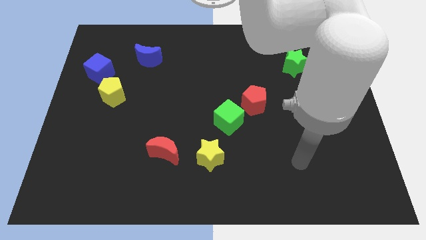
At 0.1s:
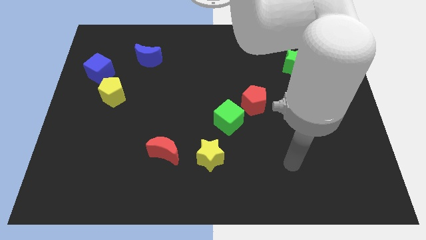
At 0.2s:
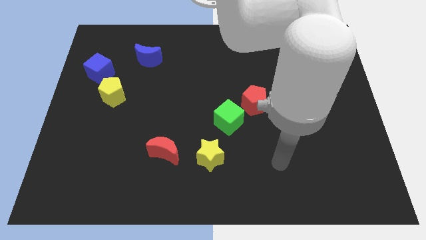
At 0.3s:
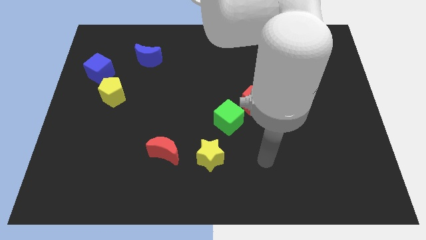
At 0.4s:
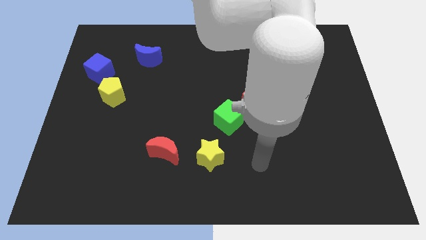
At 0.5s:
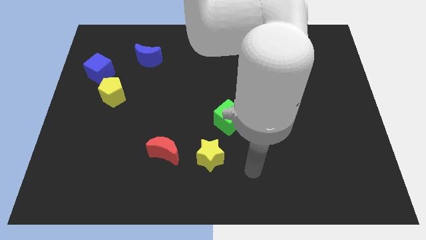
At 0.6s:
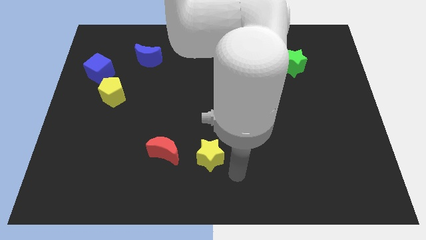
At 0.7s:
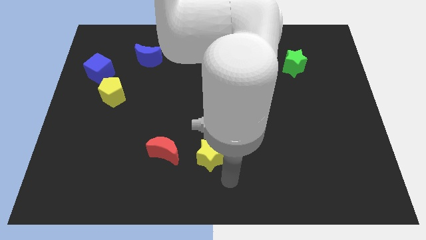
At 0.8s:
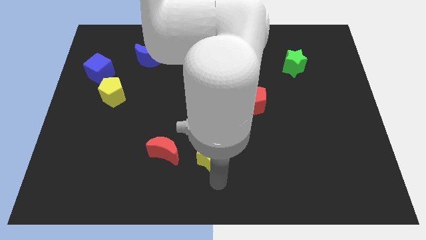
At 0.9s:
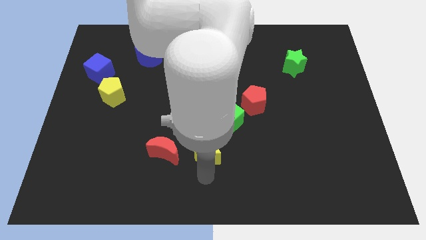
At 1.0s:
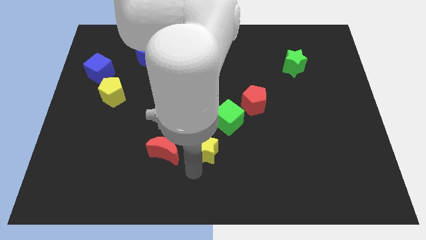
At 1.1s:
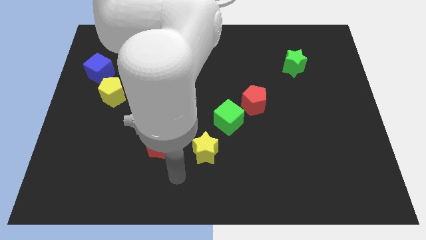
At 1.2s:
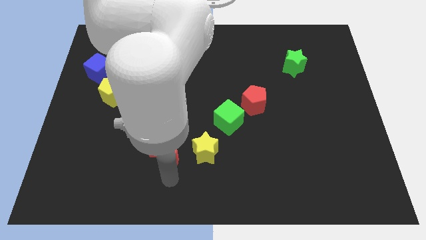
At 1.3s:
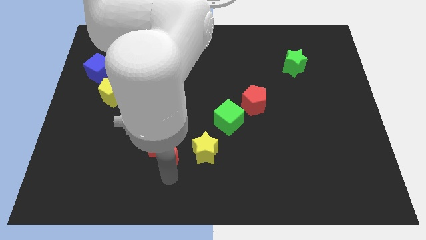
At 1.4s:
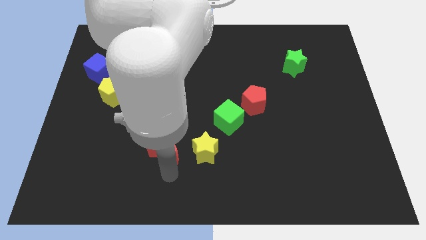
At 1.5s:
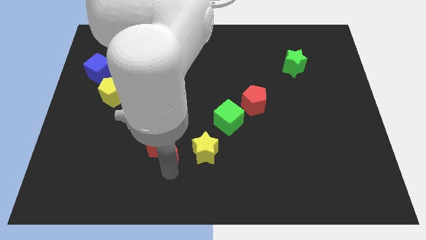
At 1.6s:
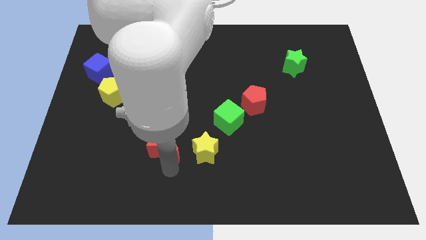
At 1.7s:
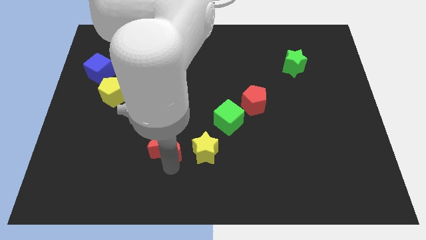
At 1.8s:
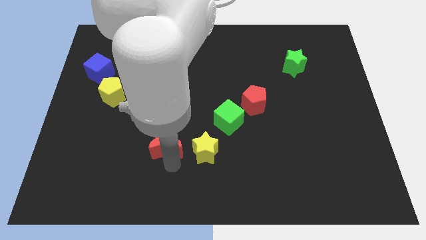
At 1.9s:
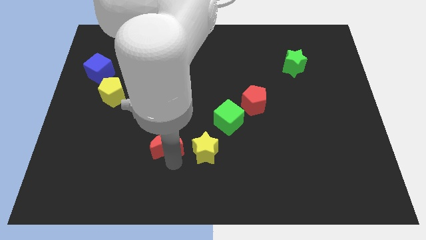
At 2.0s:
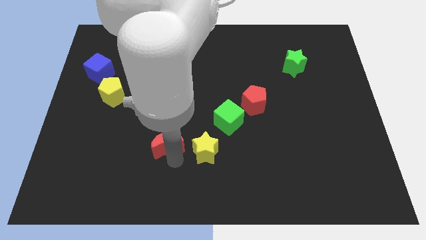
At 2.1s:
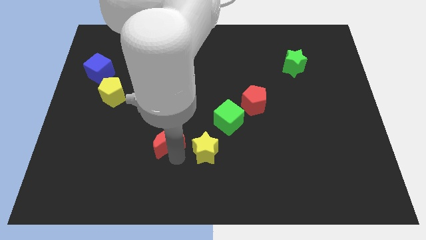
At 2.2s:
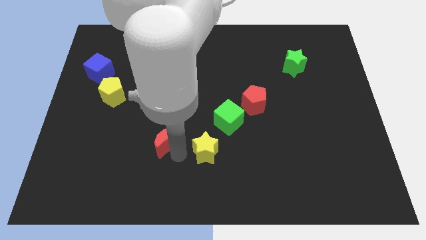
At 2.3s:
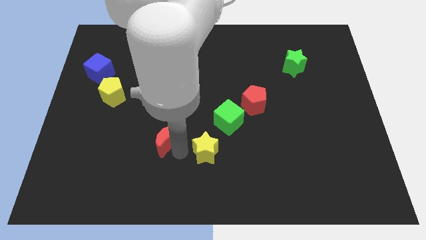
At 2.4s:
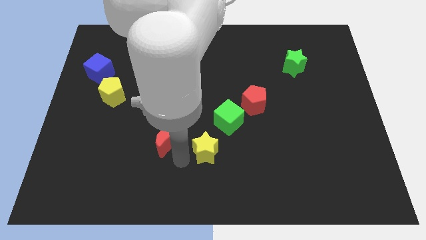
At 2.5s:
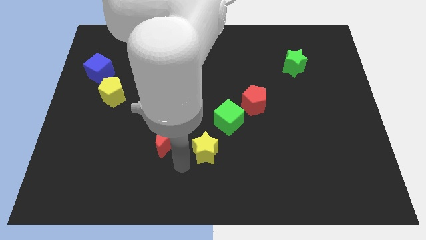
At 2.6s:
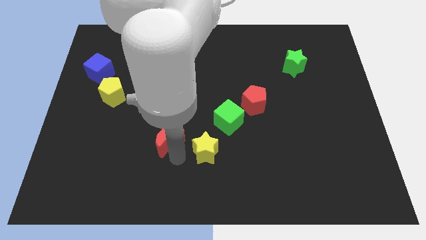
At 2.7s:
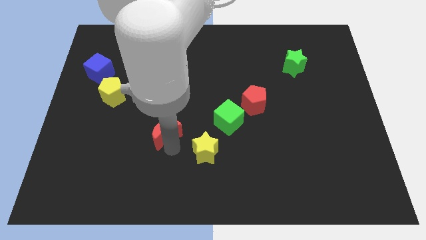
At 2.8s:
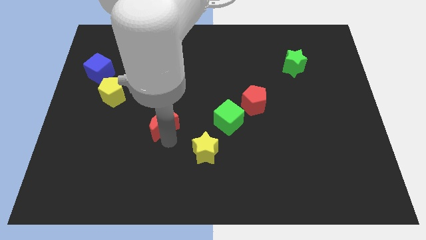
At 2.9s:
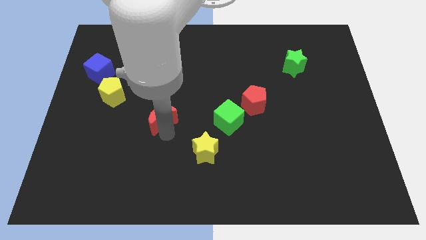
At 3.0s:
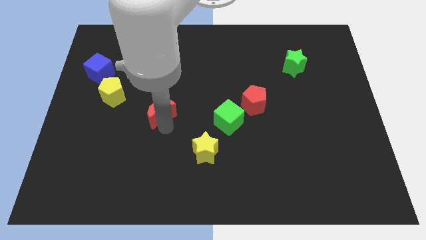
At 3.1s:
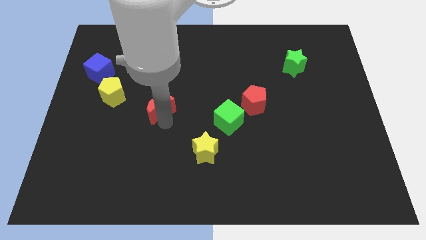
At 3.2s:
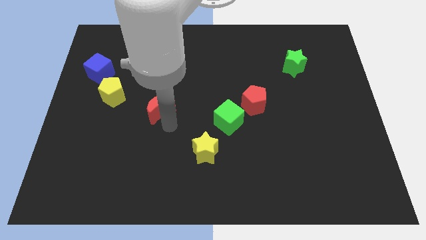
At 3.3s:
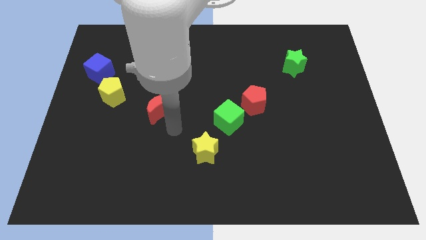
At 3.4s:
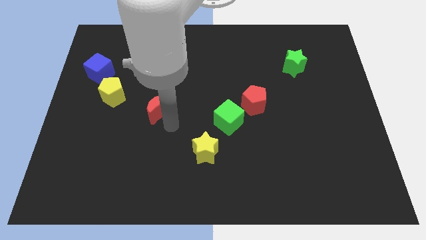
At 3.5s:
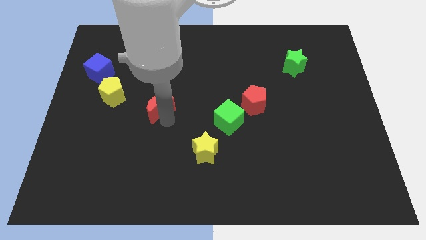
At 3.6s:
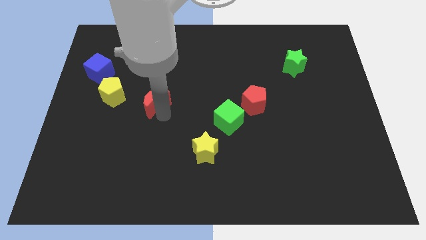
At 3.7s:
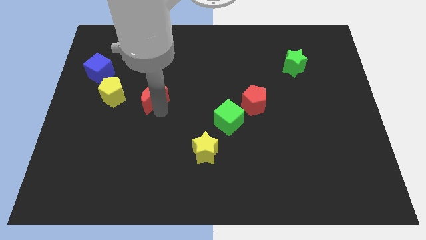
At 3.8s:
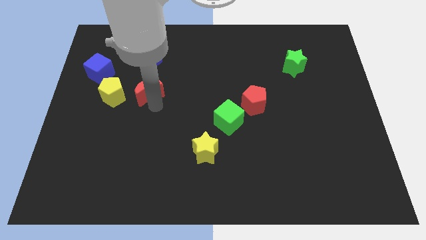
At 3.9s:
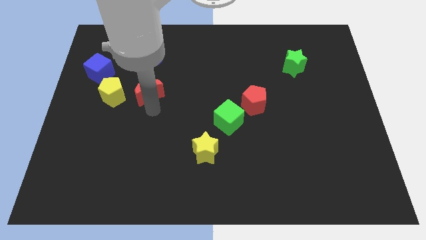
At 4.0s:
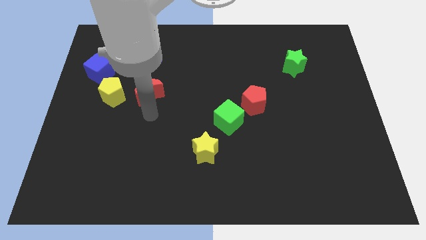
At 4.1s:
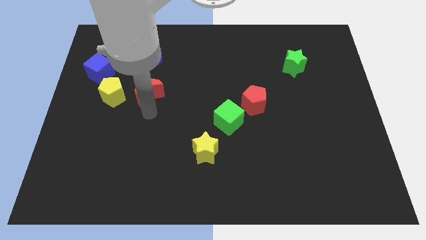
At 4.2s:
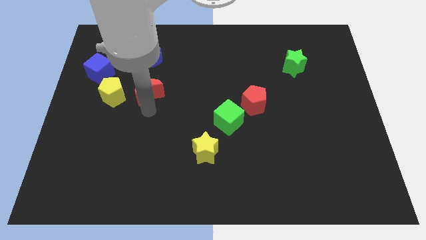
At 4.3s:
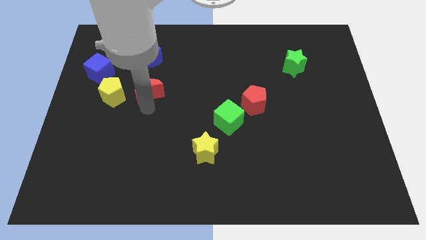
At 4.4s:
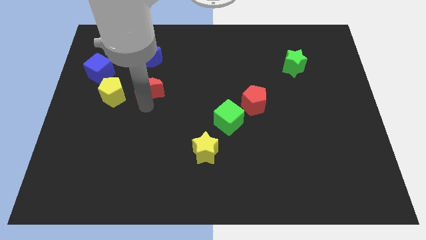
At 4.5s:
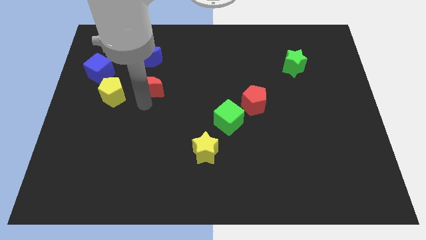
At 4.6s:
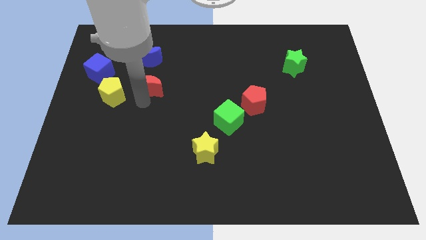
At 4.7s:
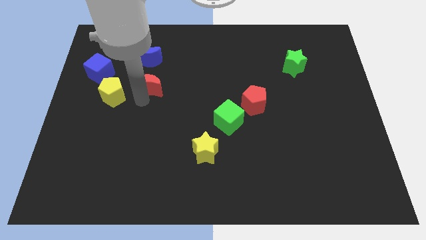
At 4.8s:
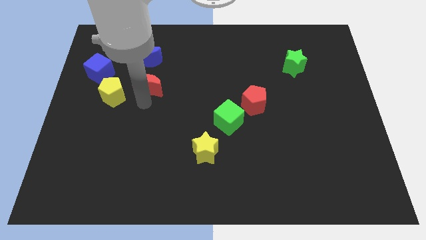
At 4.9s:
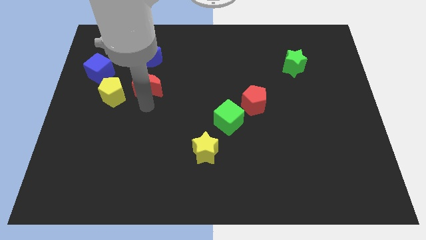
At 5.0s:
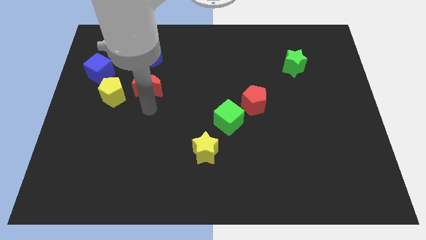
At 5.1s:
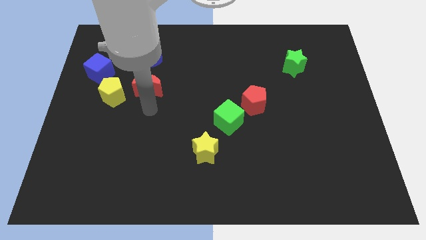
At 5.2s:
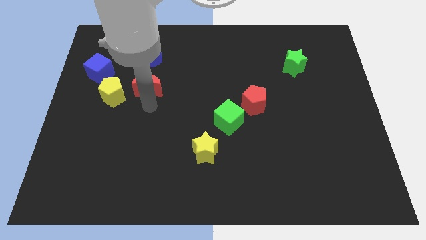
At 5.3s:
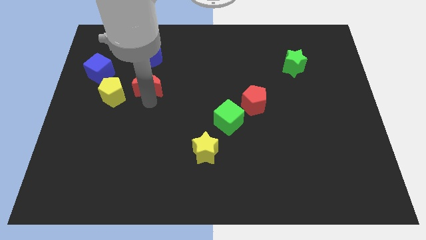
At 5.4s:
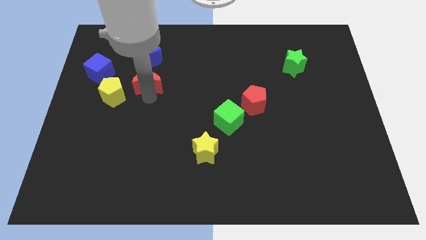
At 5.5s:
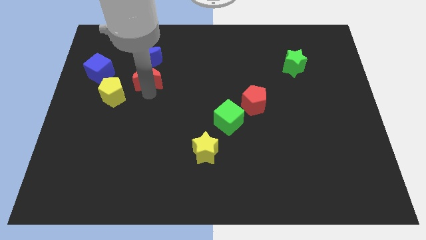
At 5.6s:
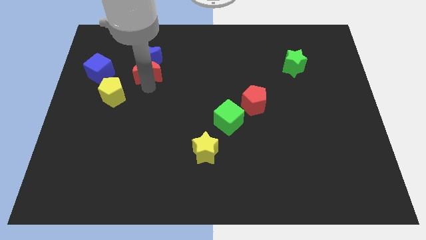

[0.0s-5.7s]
move the red moon towards the blue moon

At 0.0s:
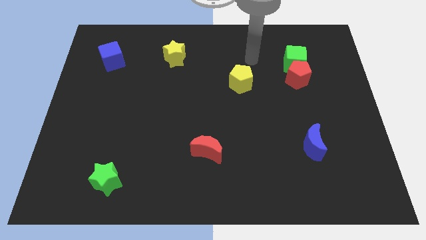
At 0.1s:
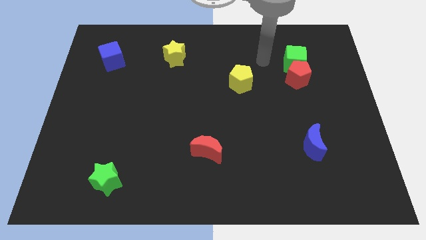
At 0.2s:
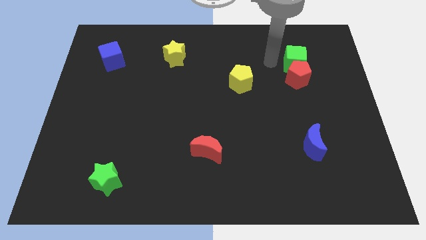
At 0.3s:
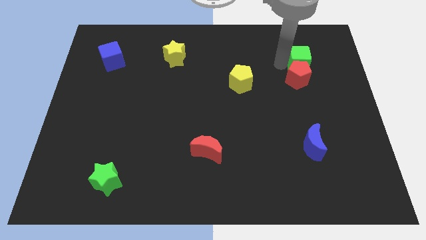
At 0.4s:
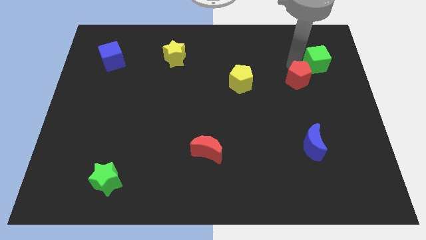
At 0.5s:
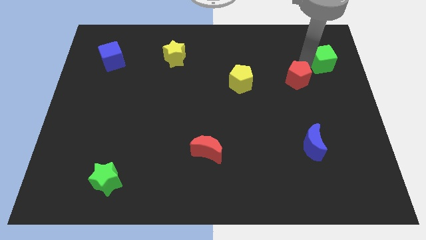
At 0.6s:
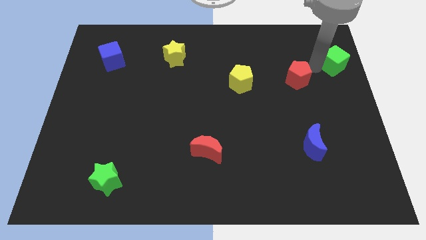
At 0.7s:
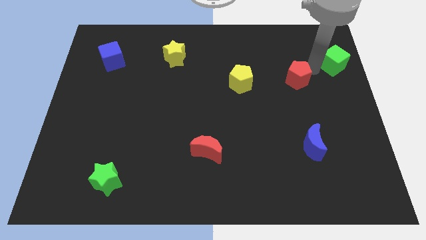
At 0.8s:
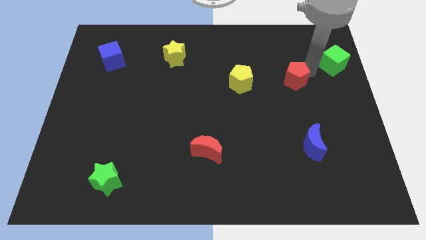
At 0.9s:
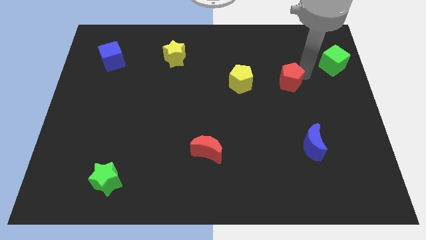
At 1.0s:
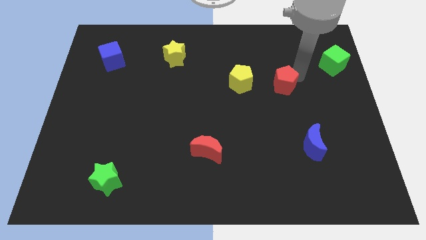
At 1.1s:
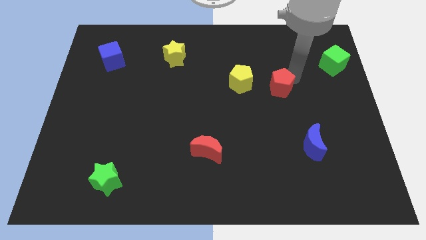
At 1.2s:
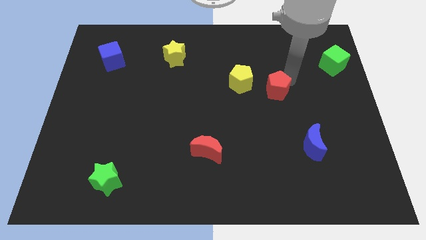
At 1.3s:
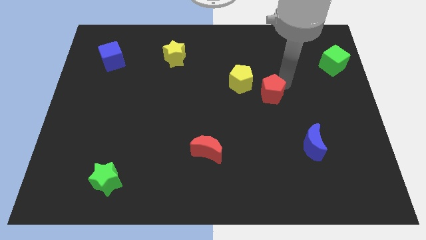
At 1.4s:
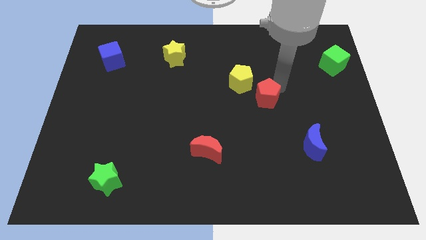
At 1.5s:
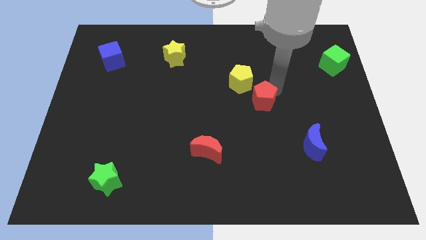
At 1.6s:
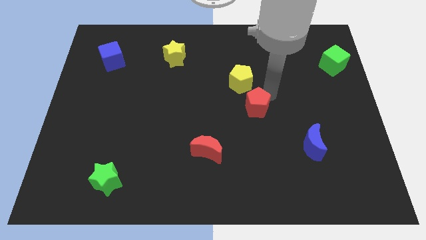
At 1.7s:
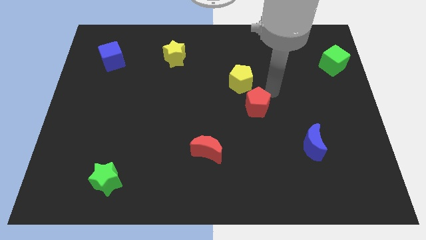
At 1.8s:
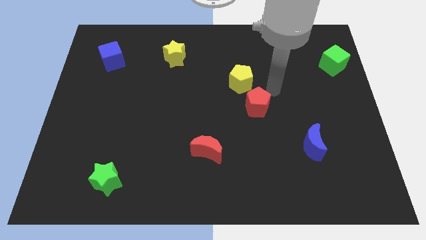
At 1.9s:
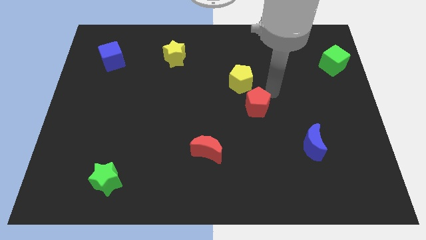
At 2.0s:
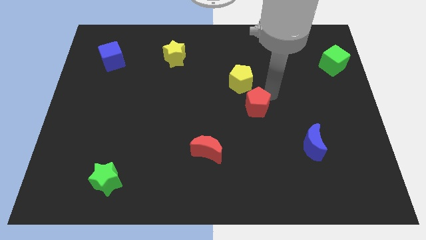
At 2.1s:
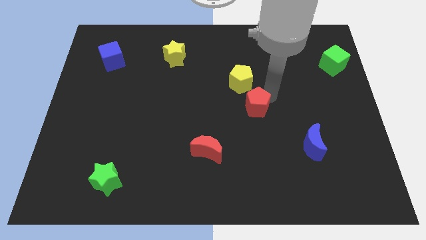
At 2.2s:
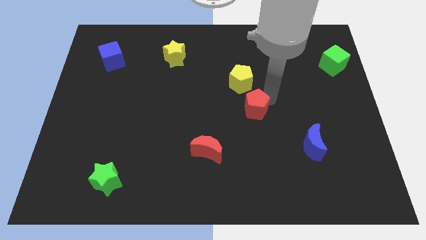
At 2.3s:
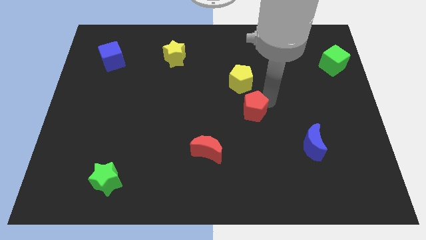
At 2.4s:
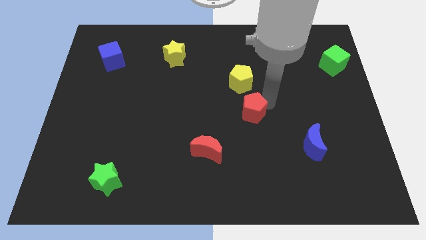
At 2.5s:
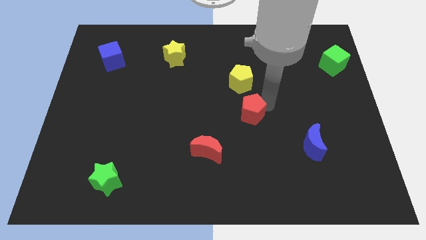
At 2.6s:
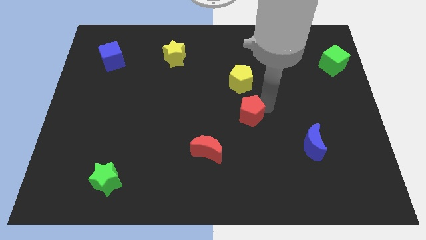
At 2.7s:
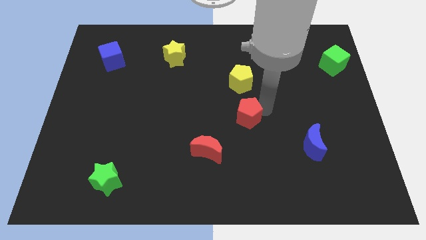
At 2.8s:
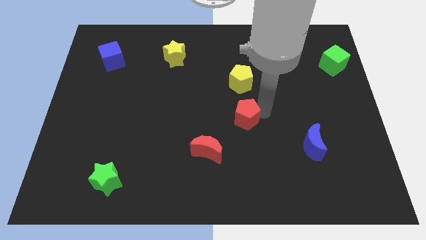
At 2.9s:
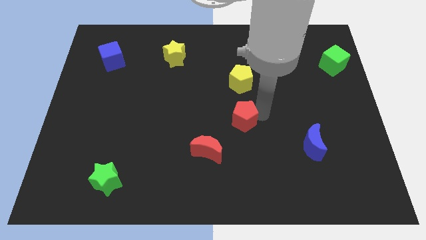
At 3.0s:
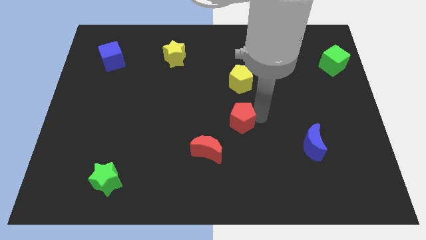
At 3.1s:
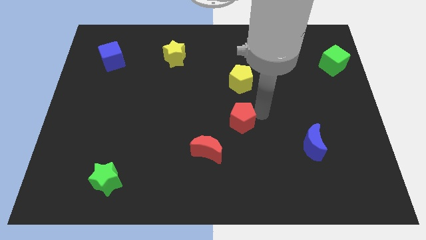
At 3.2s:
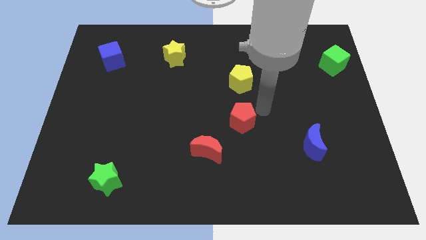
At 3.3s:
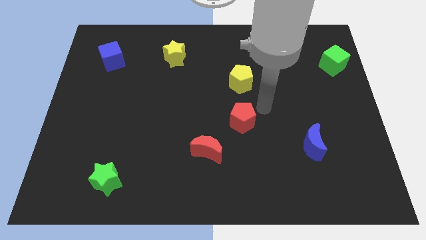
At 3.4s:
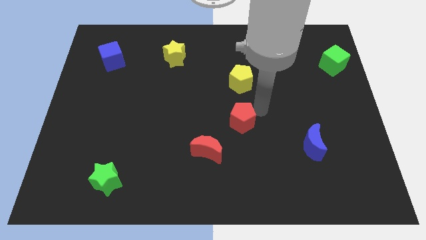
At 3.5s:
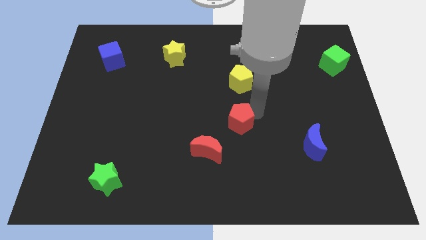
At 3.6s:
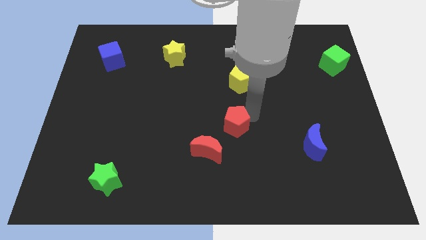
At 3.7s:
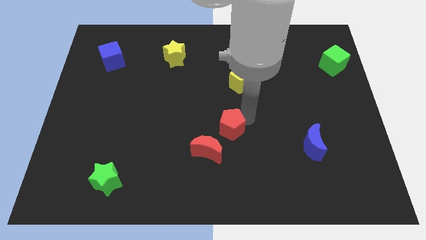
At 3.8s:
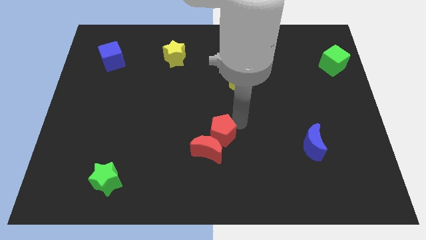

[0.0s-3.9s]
move the red pentagon towards the red moon
